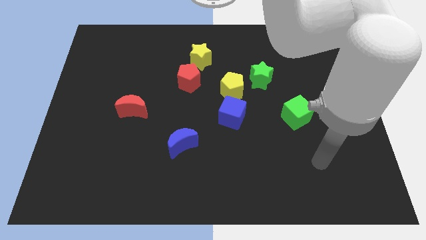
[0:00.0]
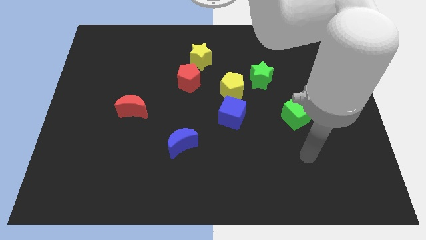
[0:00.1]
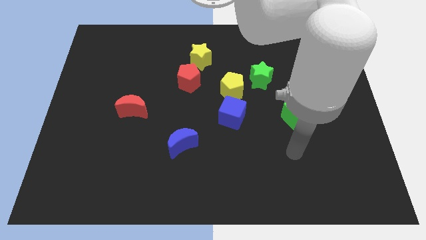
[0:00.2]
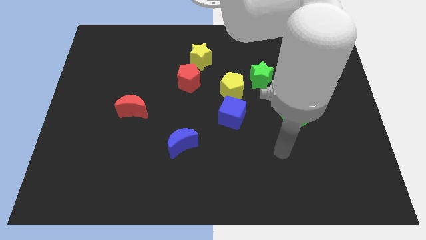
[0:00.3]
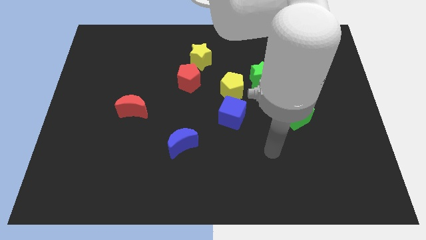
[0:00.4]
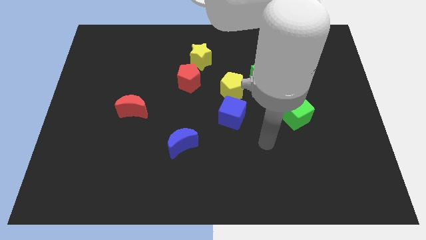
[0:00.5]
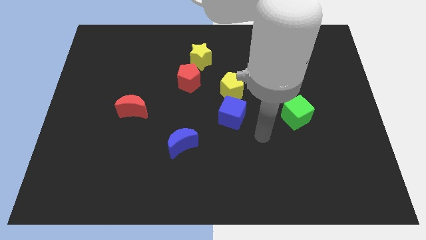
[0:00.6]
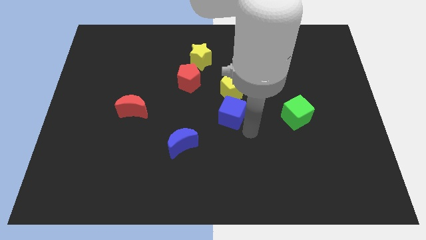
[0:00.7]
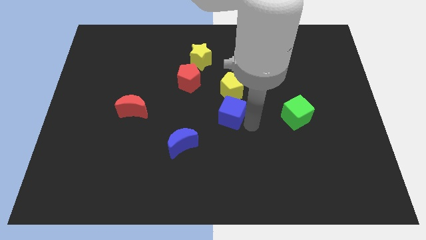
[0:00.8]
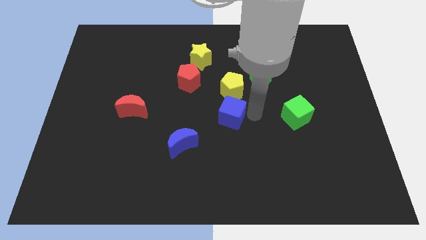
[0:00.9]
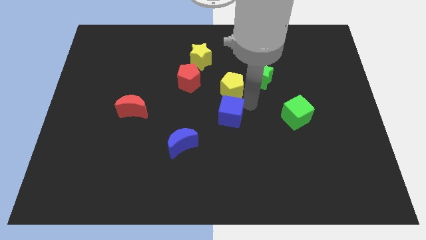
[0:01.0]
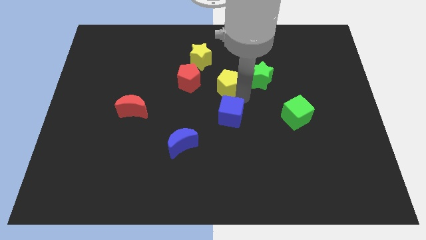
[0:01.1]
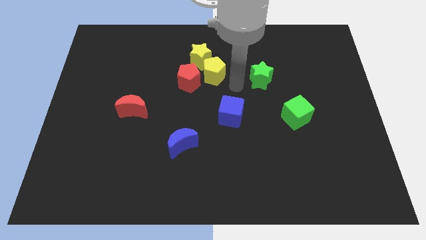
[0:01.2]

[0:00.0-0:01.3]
separate the green star from the yellow pentagon

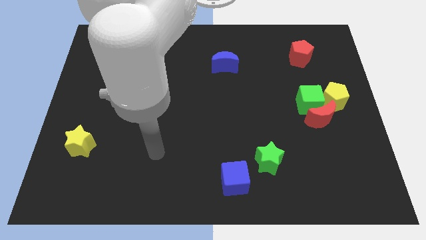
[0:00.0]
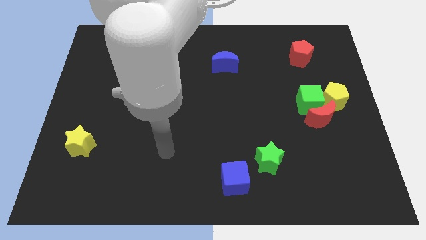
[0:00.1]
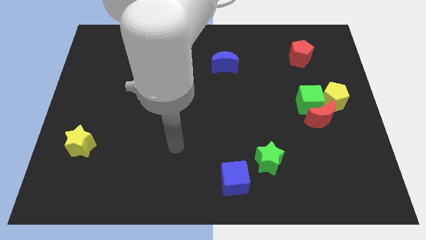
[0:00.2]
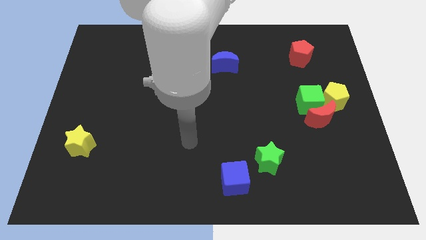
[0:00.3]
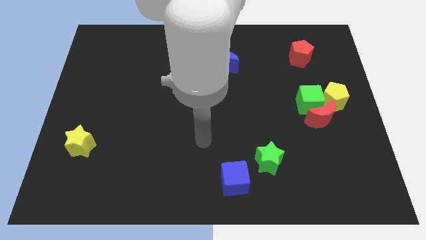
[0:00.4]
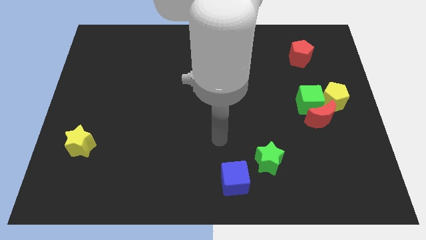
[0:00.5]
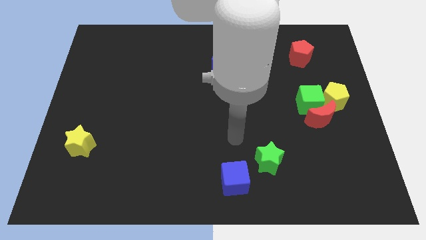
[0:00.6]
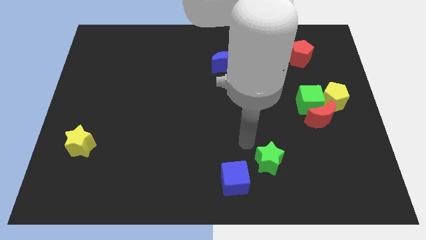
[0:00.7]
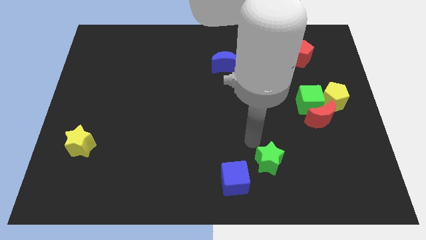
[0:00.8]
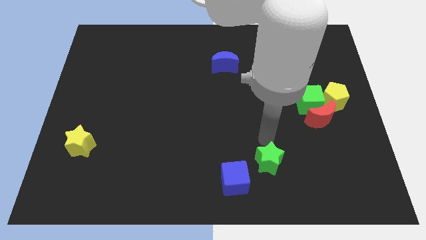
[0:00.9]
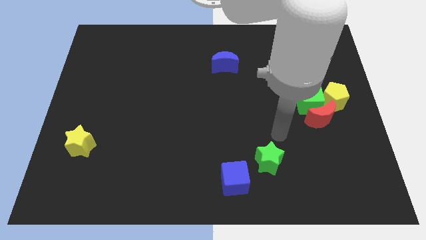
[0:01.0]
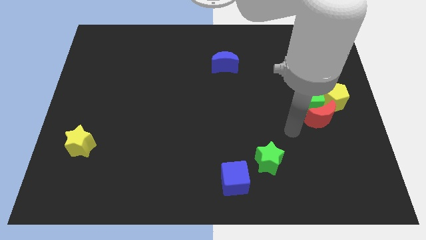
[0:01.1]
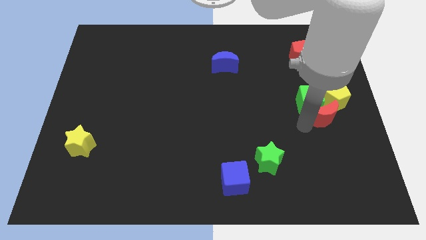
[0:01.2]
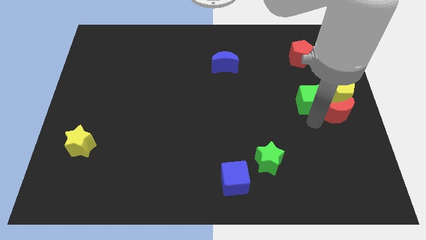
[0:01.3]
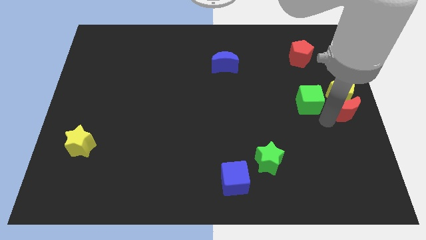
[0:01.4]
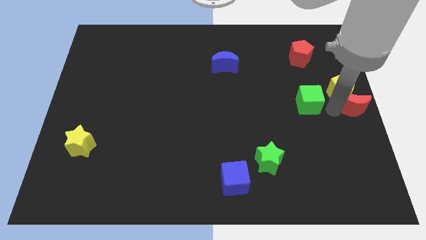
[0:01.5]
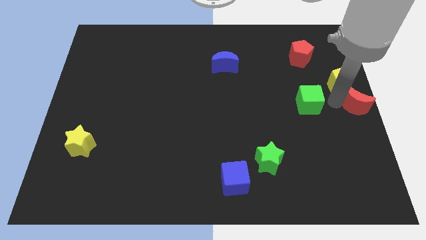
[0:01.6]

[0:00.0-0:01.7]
separate the green cube from the red moon and yellow pentagon

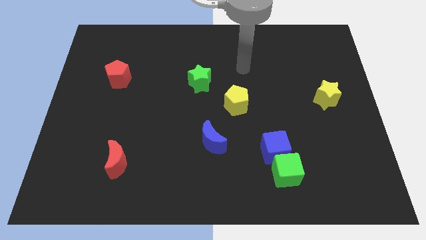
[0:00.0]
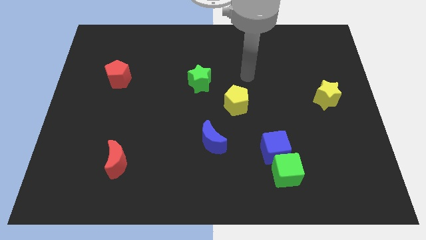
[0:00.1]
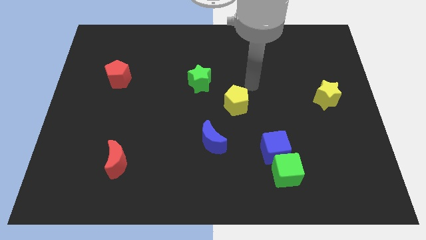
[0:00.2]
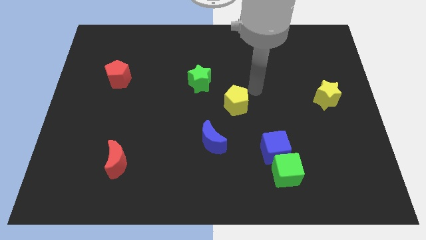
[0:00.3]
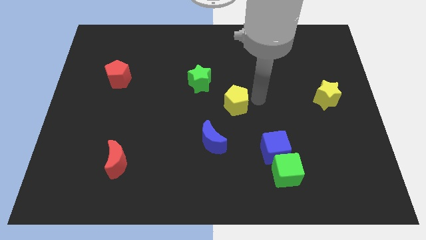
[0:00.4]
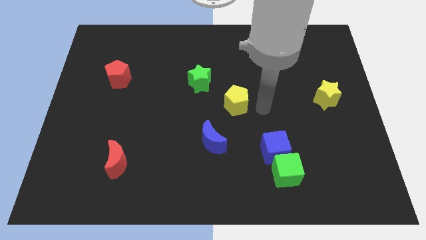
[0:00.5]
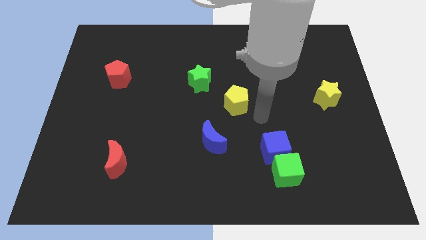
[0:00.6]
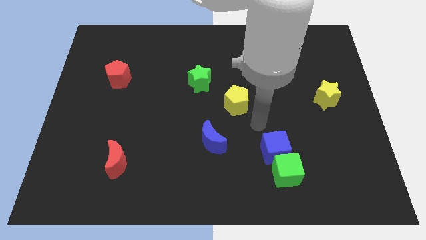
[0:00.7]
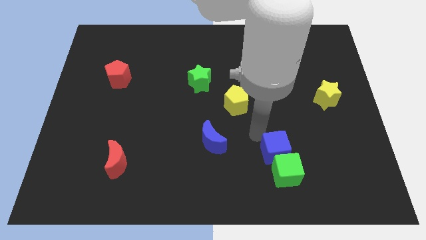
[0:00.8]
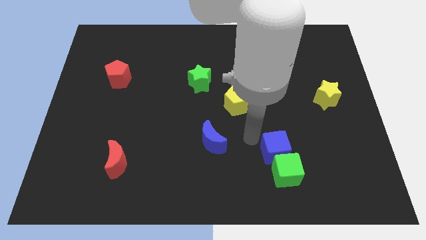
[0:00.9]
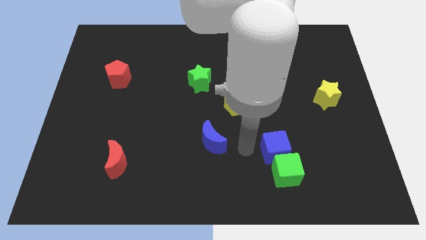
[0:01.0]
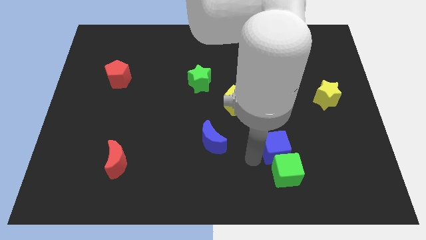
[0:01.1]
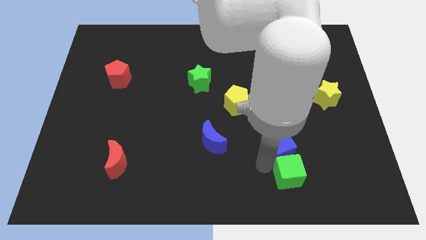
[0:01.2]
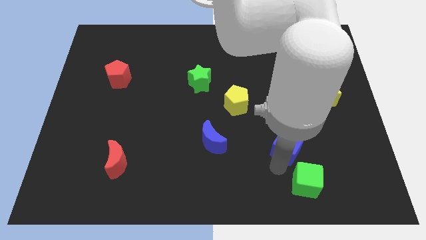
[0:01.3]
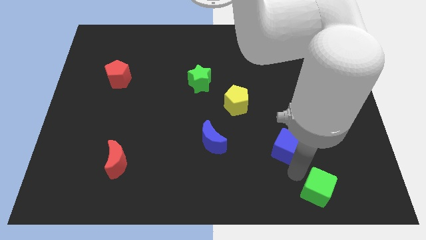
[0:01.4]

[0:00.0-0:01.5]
move the blue cube away from the green cube

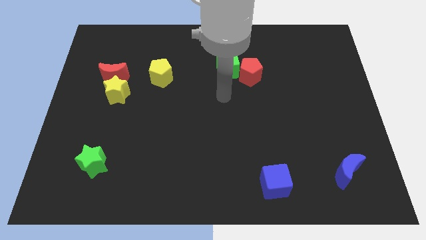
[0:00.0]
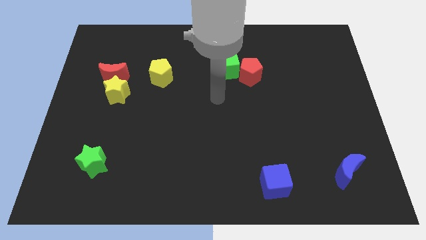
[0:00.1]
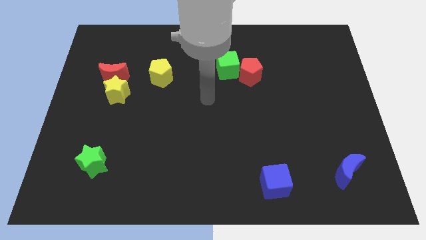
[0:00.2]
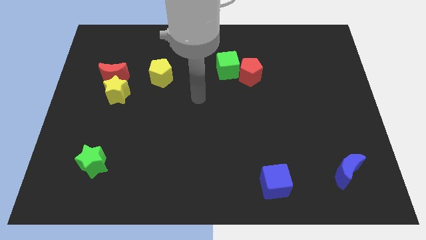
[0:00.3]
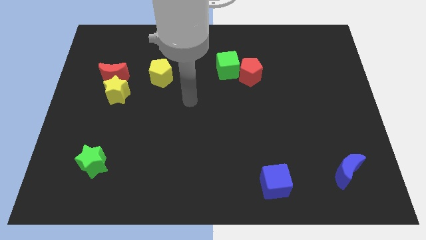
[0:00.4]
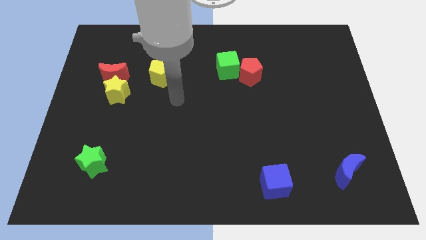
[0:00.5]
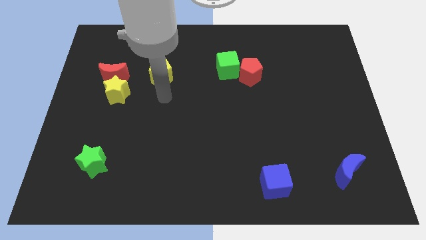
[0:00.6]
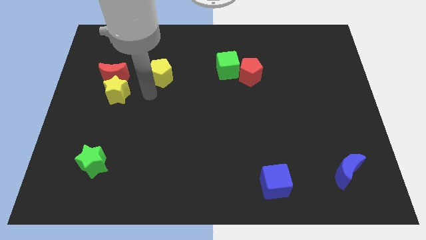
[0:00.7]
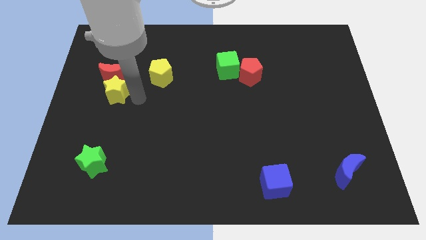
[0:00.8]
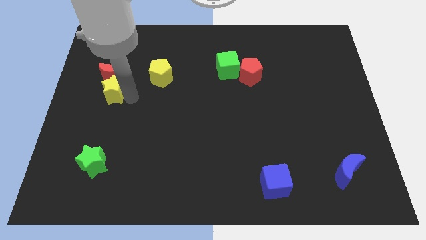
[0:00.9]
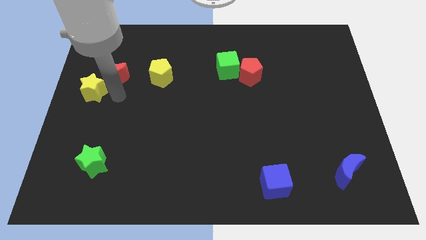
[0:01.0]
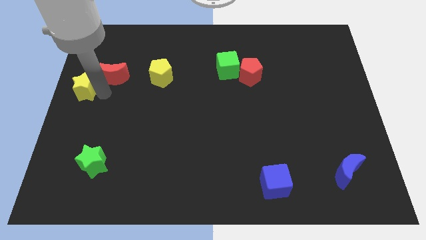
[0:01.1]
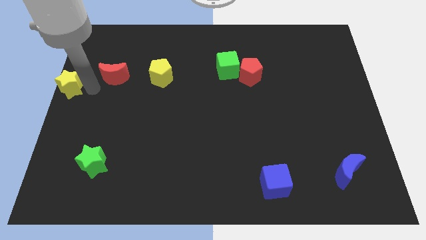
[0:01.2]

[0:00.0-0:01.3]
separate the red moon from the yellow star

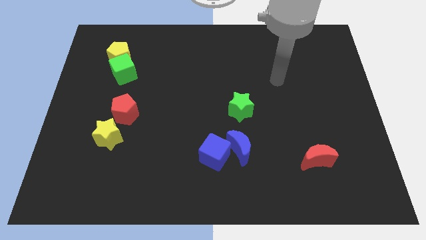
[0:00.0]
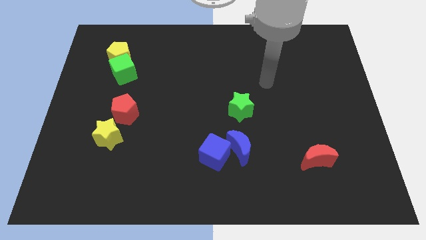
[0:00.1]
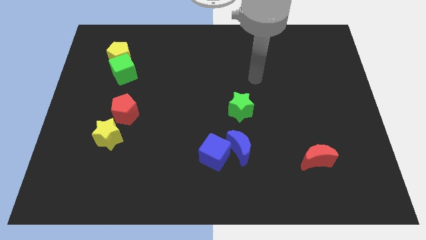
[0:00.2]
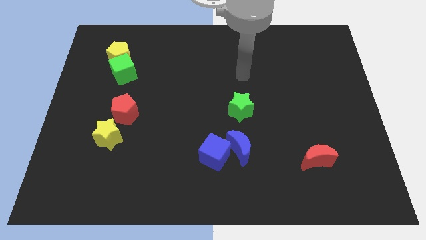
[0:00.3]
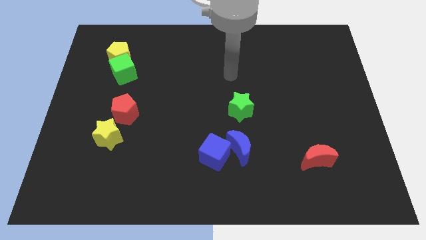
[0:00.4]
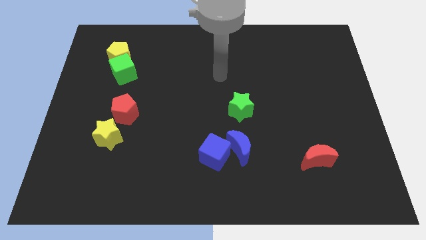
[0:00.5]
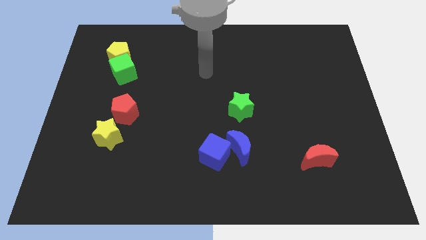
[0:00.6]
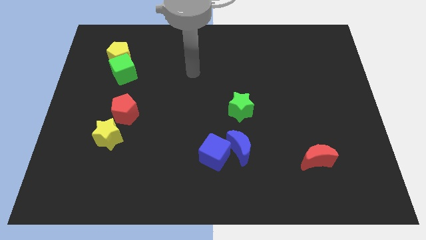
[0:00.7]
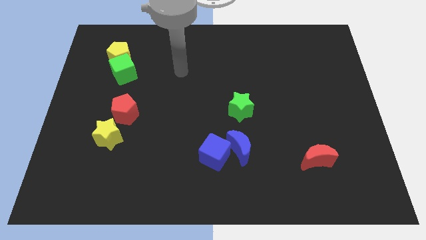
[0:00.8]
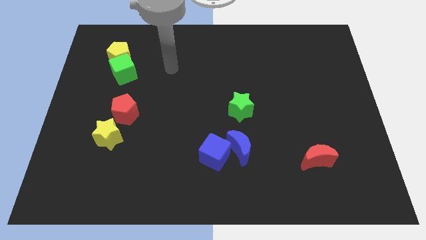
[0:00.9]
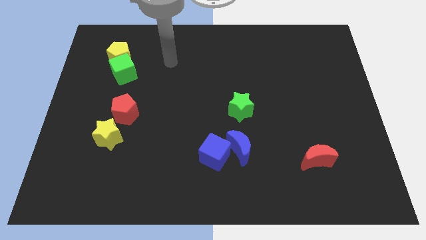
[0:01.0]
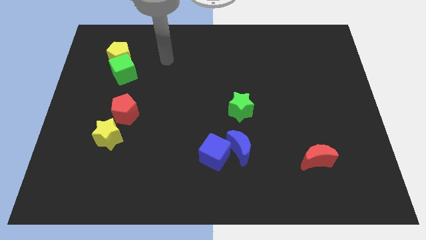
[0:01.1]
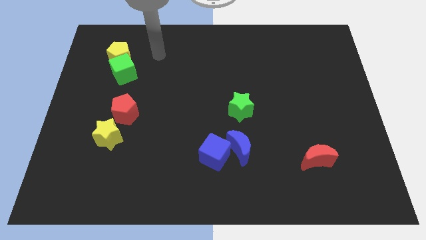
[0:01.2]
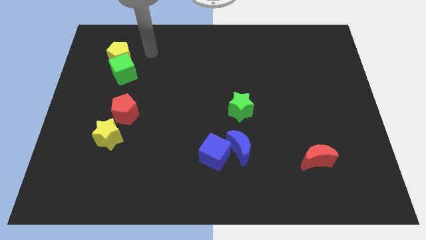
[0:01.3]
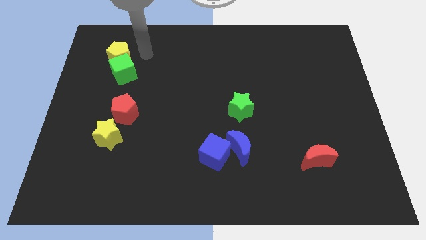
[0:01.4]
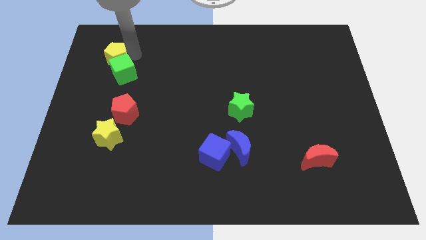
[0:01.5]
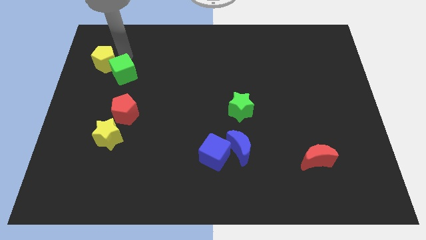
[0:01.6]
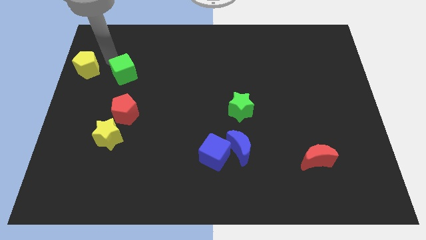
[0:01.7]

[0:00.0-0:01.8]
separate the green cube from the yellow pentagon

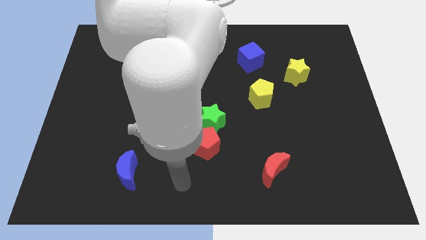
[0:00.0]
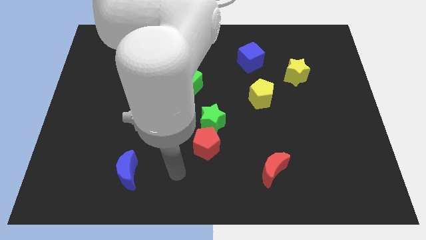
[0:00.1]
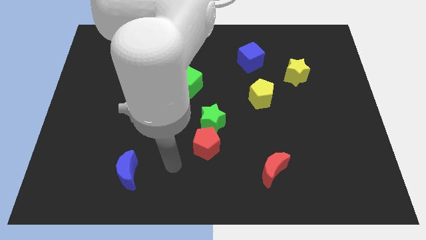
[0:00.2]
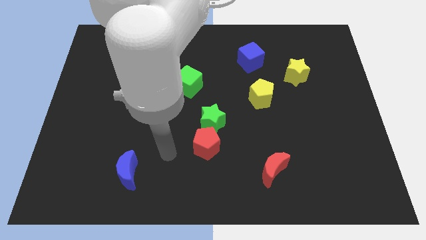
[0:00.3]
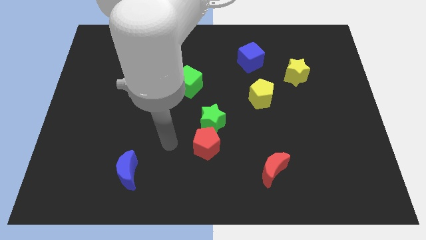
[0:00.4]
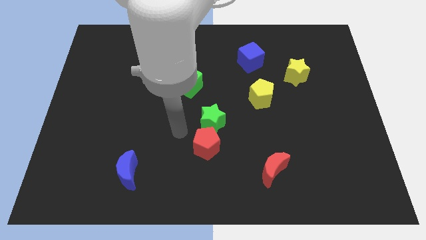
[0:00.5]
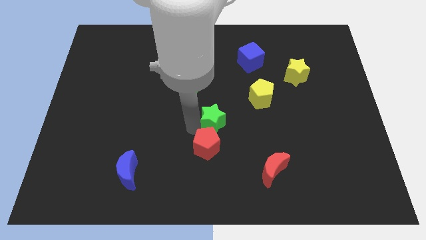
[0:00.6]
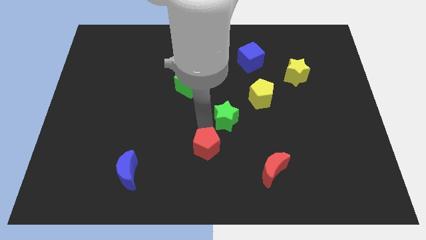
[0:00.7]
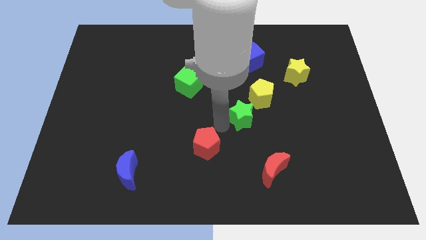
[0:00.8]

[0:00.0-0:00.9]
move the red pentagon away from the green star

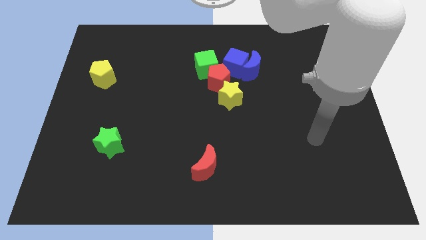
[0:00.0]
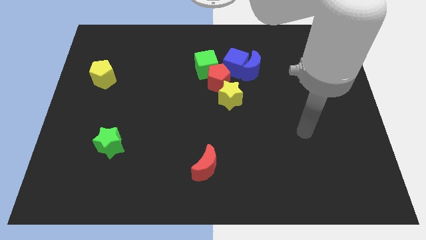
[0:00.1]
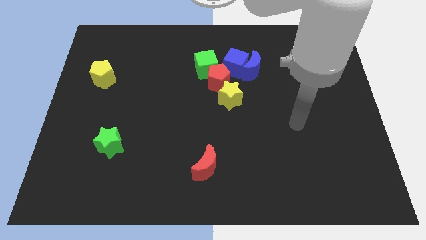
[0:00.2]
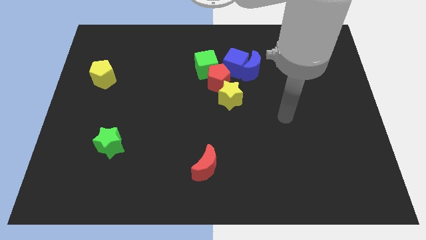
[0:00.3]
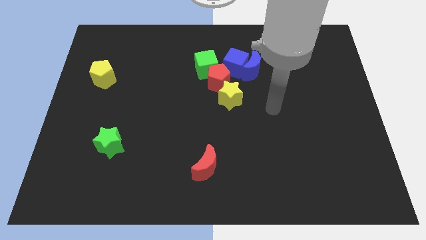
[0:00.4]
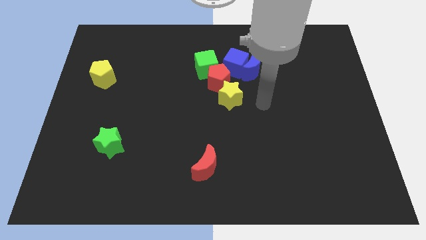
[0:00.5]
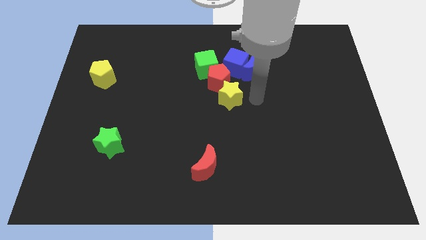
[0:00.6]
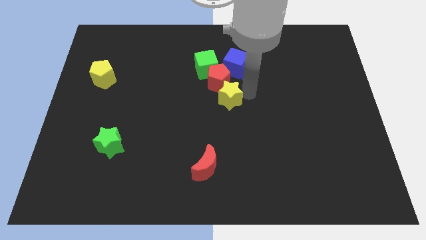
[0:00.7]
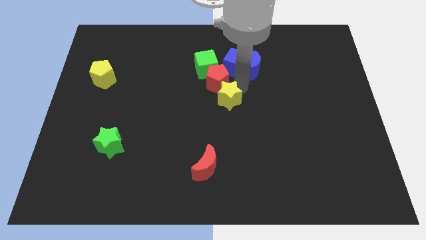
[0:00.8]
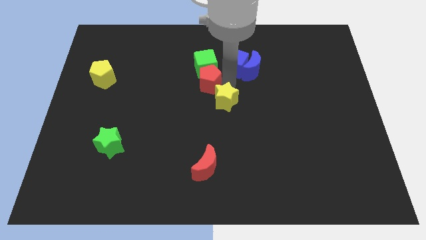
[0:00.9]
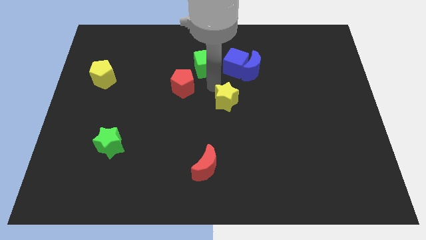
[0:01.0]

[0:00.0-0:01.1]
move the yellow star away from the red pentagon
